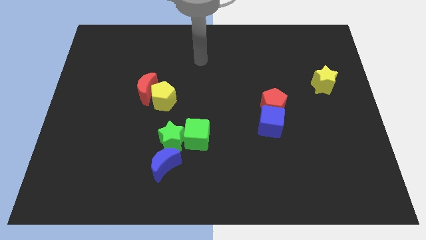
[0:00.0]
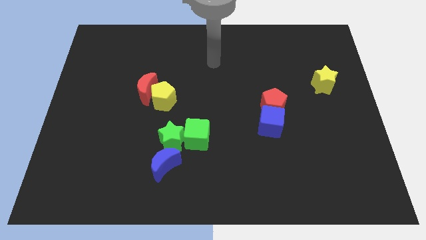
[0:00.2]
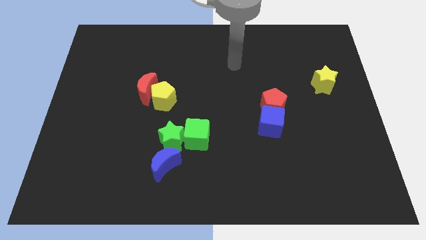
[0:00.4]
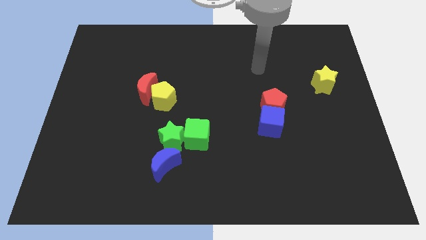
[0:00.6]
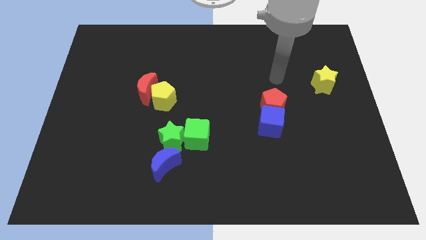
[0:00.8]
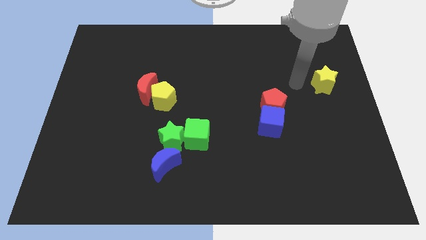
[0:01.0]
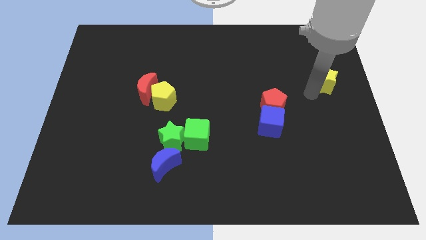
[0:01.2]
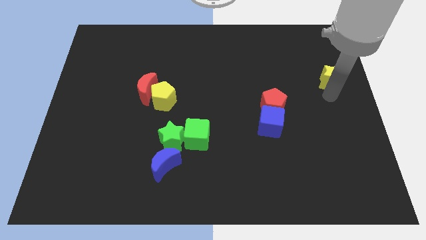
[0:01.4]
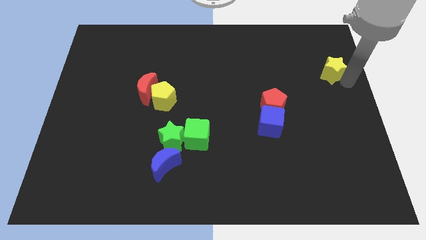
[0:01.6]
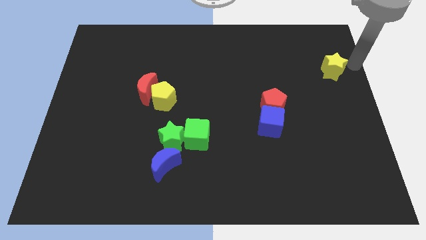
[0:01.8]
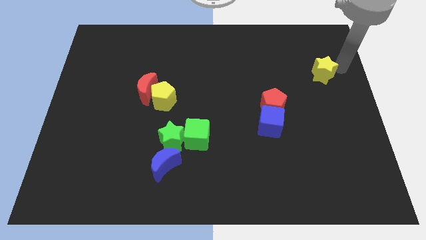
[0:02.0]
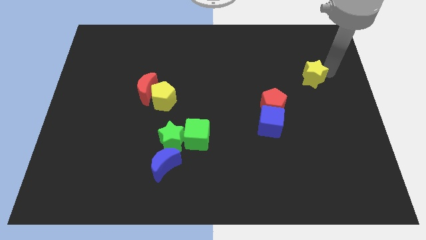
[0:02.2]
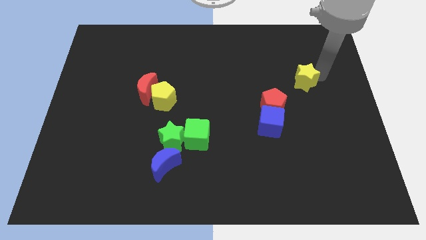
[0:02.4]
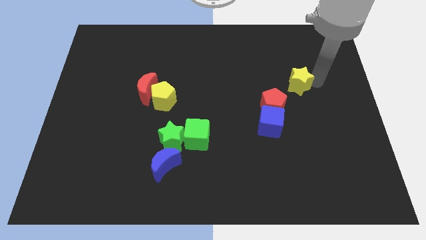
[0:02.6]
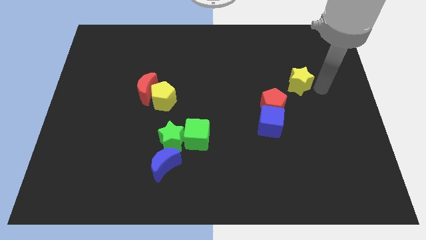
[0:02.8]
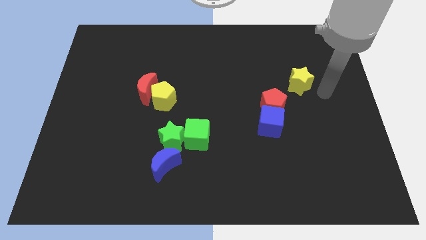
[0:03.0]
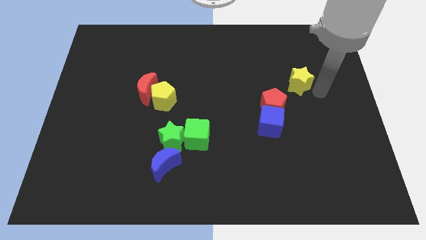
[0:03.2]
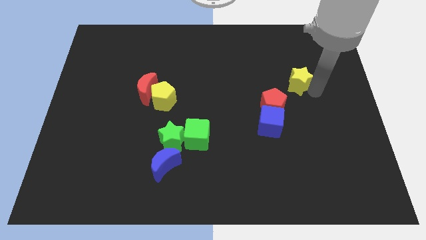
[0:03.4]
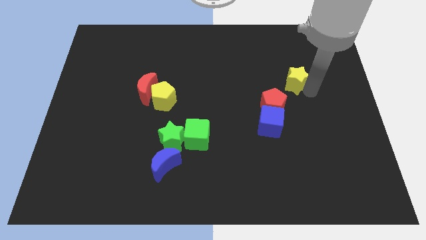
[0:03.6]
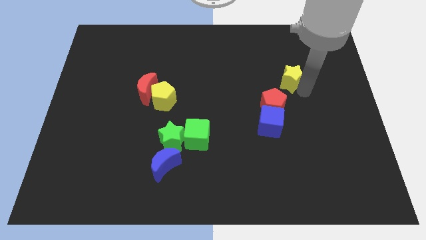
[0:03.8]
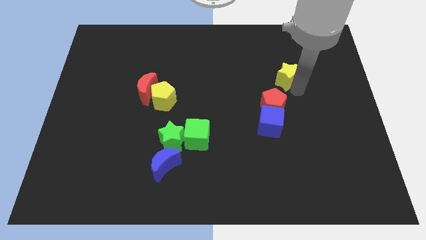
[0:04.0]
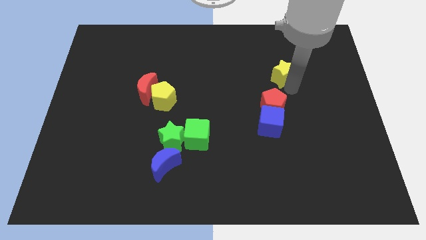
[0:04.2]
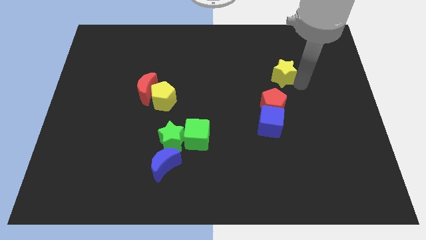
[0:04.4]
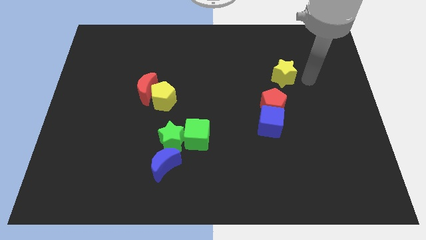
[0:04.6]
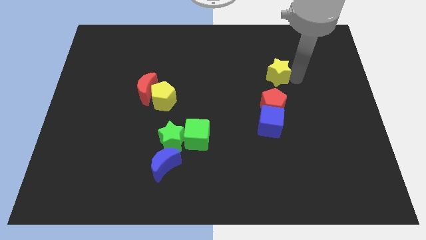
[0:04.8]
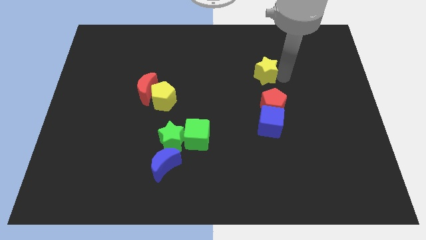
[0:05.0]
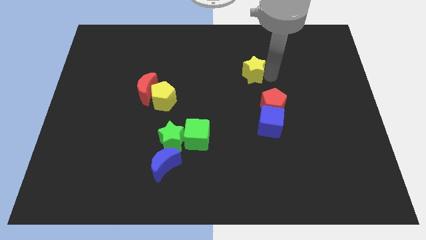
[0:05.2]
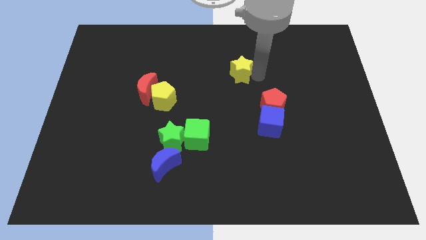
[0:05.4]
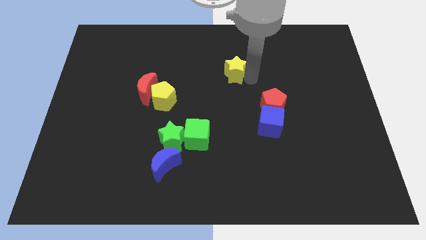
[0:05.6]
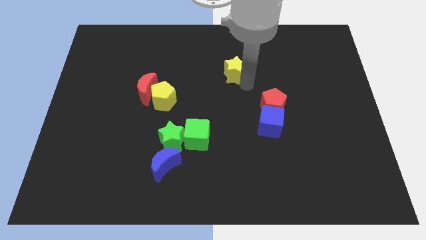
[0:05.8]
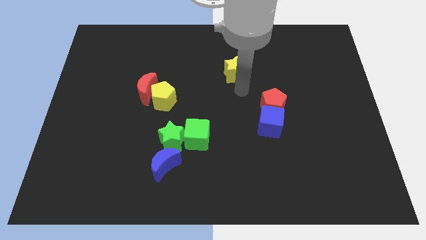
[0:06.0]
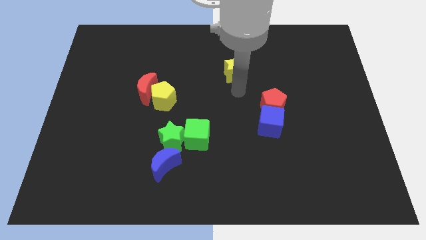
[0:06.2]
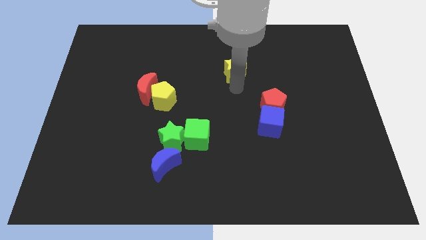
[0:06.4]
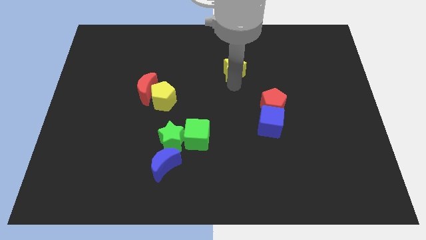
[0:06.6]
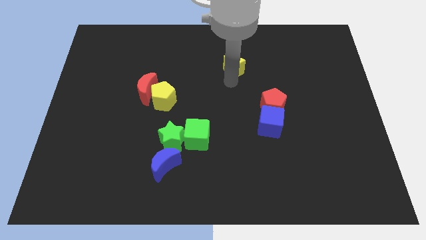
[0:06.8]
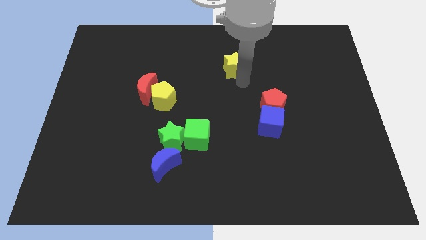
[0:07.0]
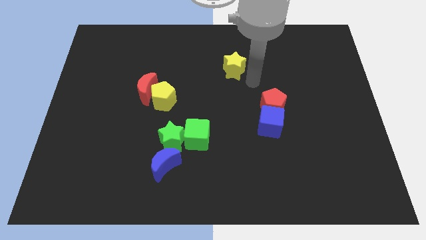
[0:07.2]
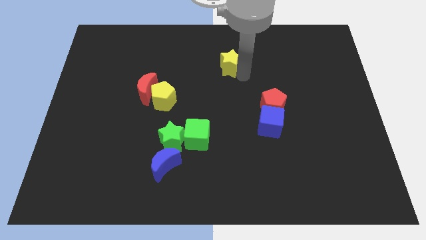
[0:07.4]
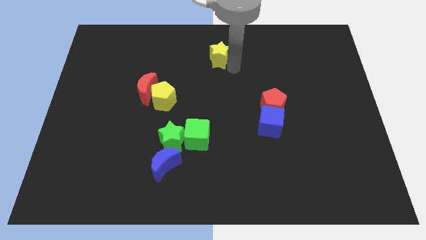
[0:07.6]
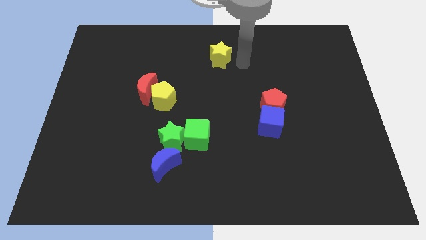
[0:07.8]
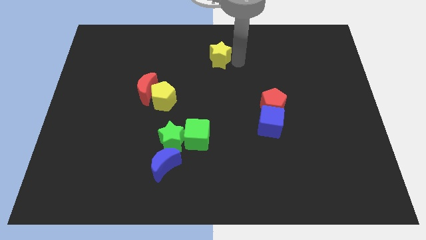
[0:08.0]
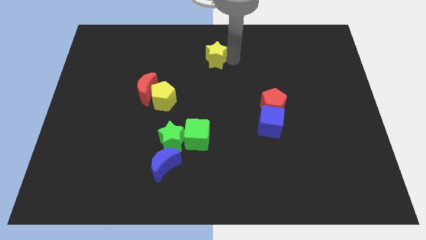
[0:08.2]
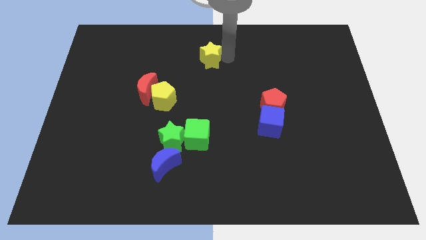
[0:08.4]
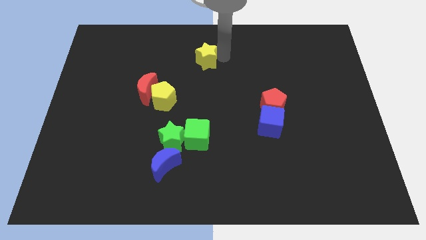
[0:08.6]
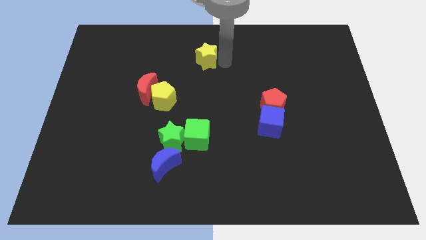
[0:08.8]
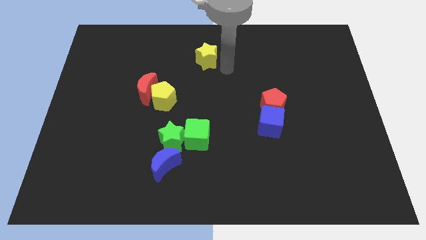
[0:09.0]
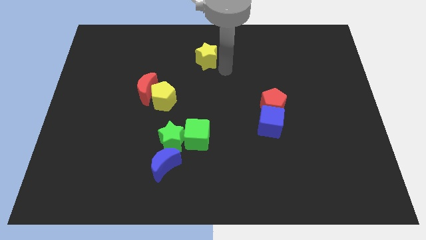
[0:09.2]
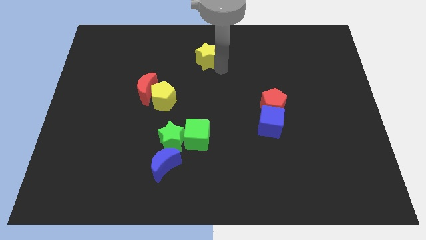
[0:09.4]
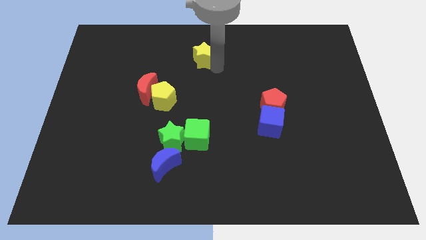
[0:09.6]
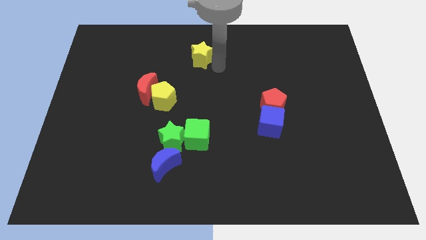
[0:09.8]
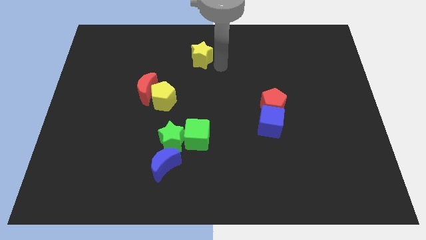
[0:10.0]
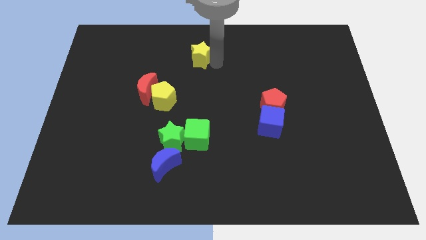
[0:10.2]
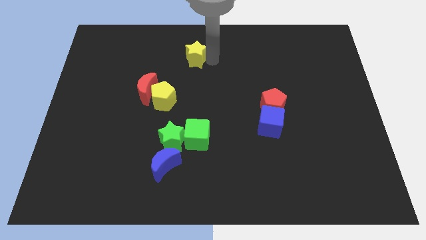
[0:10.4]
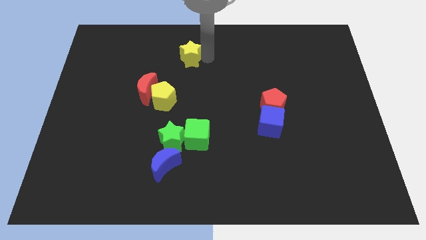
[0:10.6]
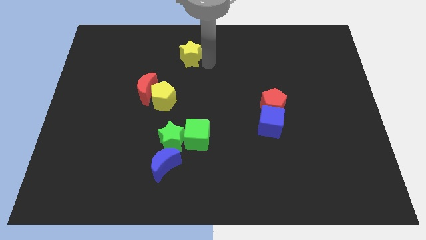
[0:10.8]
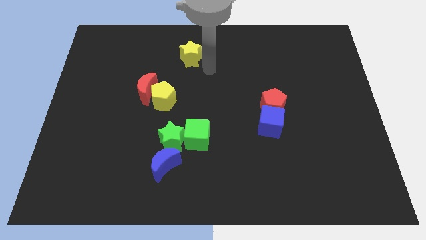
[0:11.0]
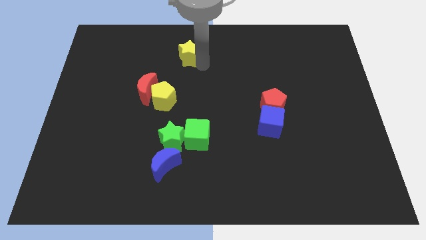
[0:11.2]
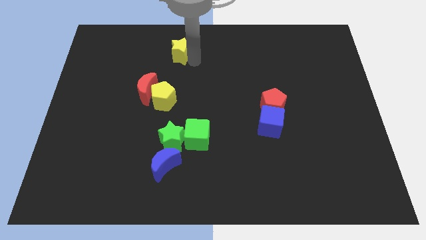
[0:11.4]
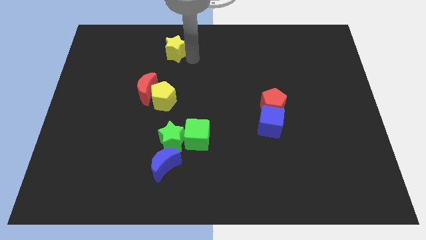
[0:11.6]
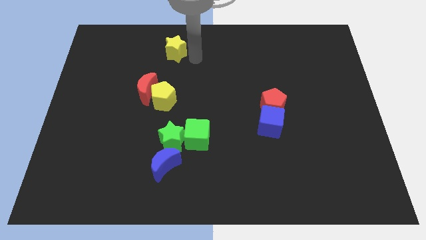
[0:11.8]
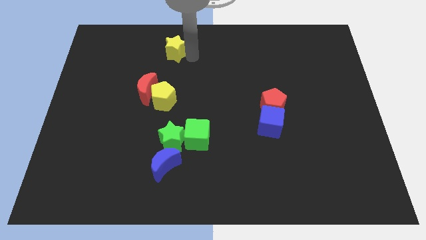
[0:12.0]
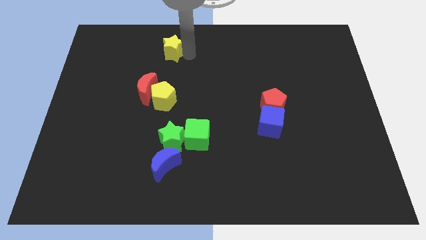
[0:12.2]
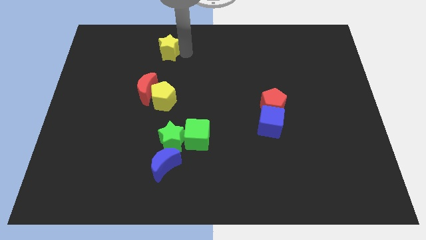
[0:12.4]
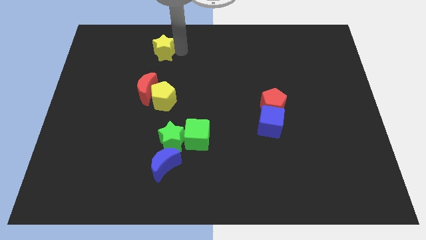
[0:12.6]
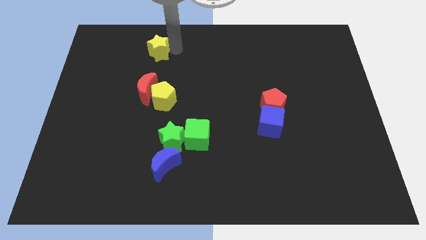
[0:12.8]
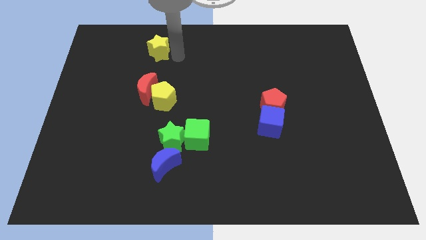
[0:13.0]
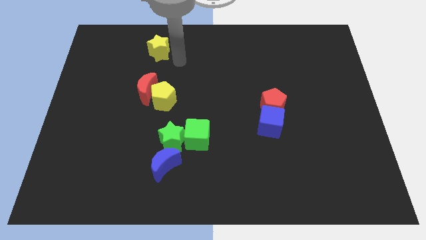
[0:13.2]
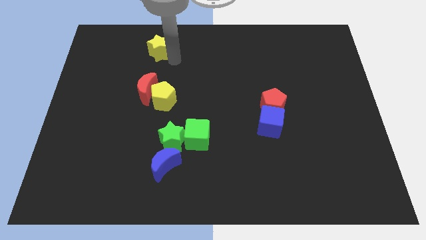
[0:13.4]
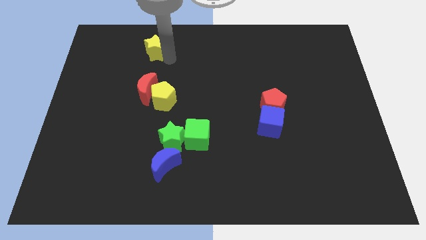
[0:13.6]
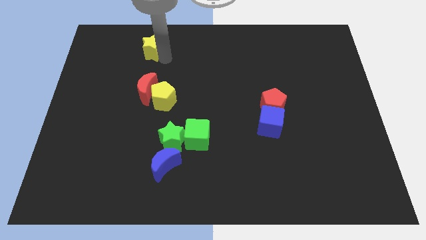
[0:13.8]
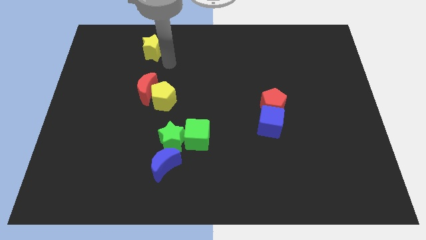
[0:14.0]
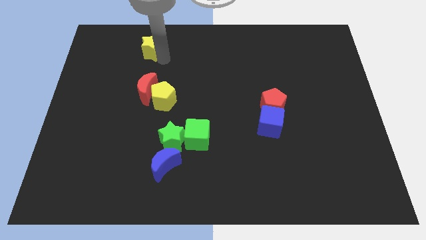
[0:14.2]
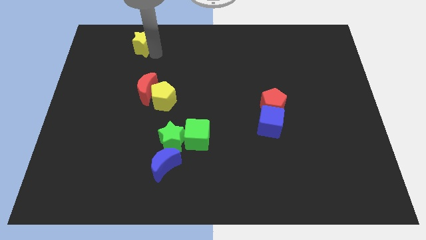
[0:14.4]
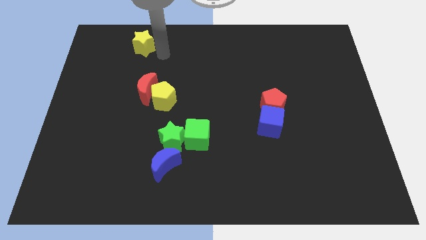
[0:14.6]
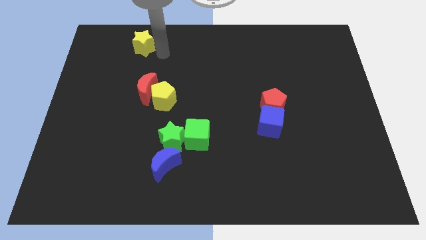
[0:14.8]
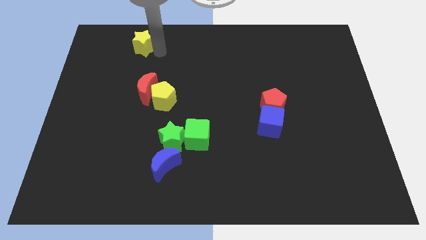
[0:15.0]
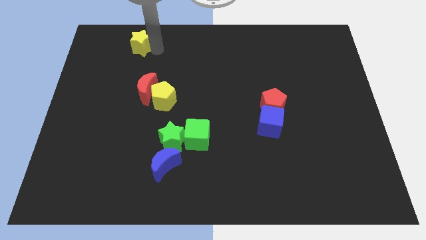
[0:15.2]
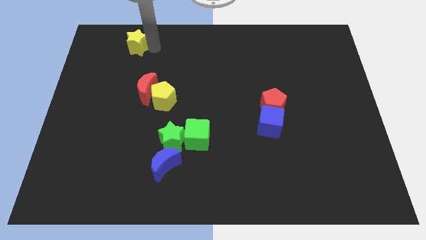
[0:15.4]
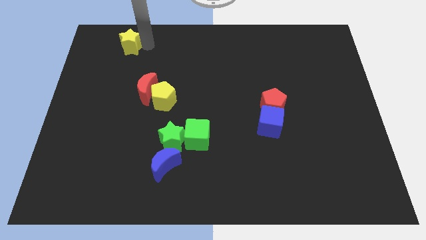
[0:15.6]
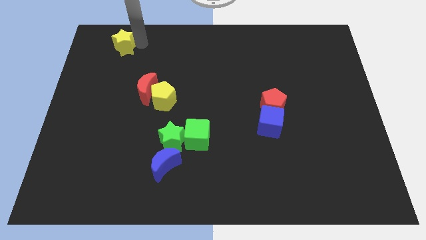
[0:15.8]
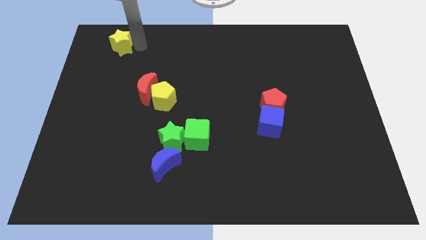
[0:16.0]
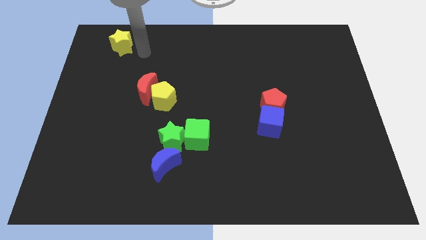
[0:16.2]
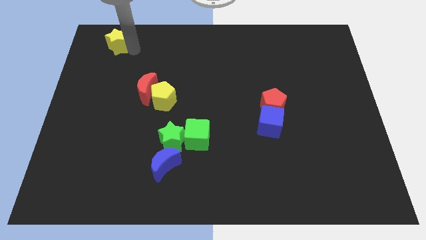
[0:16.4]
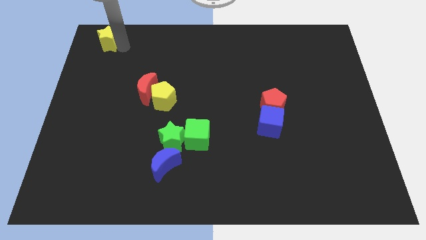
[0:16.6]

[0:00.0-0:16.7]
push the yellow star to the upper left corner
